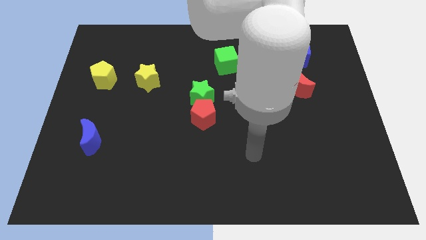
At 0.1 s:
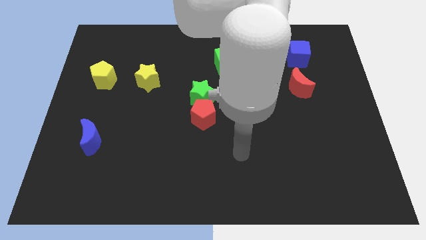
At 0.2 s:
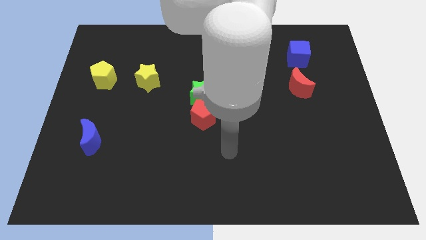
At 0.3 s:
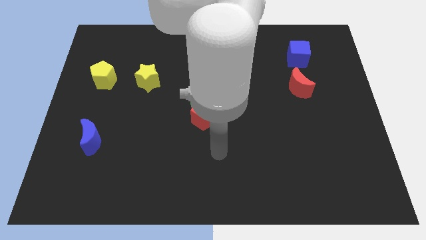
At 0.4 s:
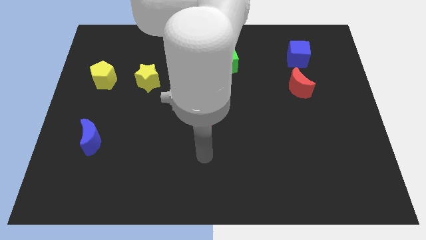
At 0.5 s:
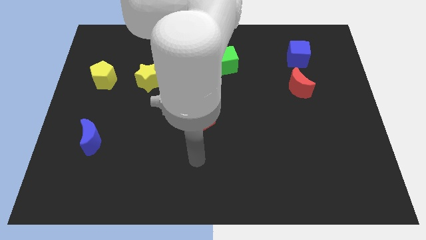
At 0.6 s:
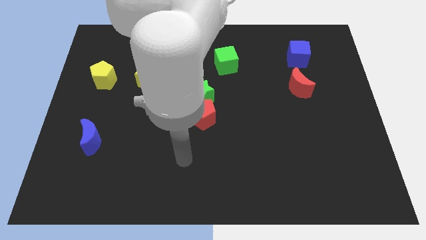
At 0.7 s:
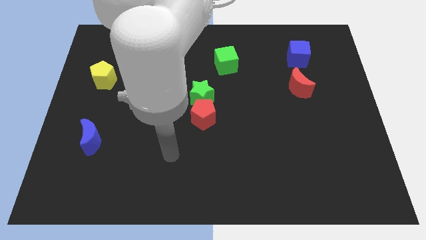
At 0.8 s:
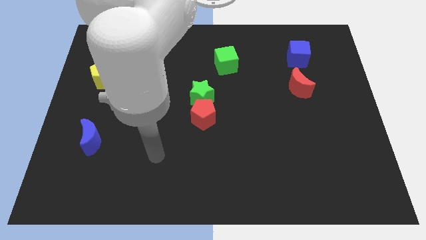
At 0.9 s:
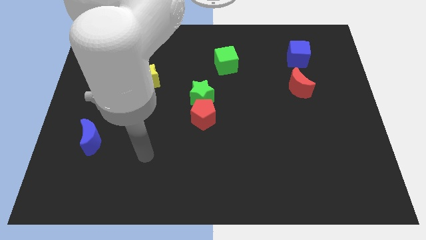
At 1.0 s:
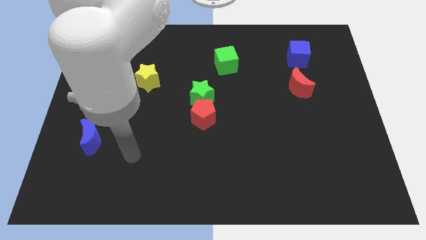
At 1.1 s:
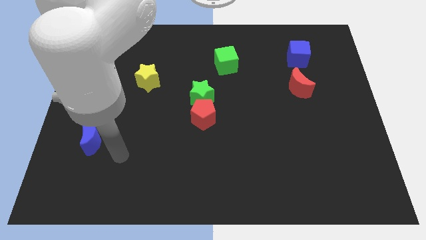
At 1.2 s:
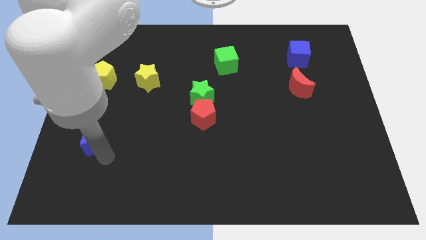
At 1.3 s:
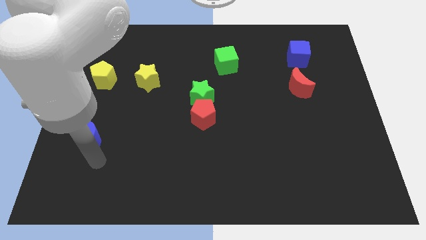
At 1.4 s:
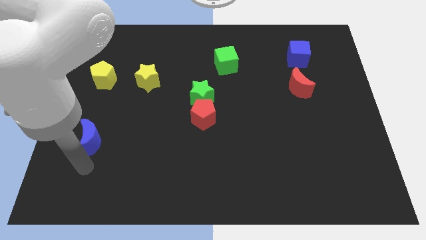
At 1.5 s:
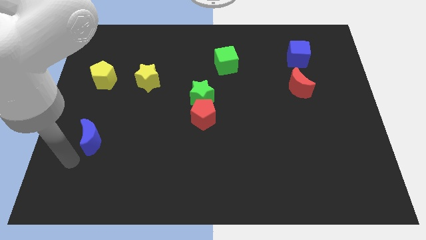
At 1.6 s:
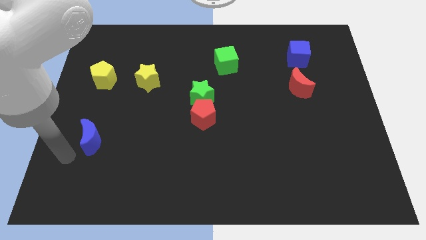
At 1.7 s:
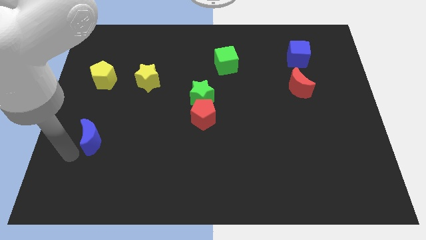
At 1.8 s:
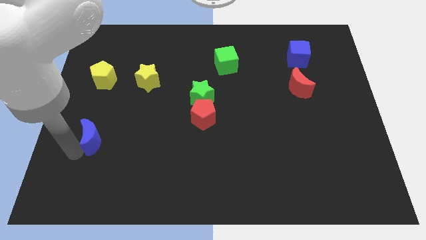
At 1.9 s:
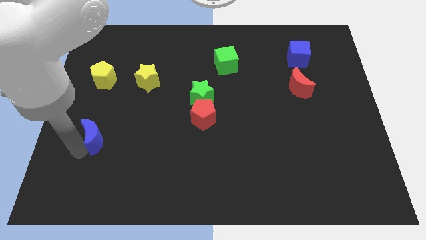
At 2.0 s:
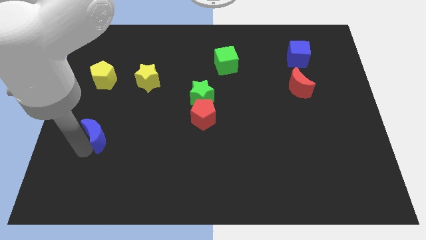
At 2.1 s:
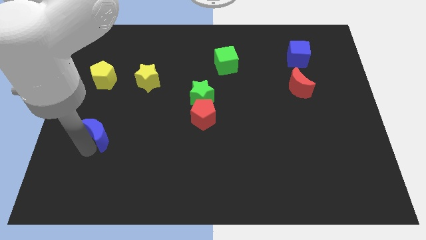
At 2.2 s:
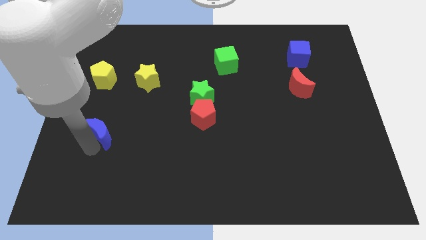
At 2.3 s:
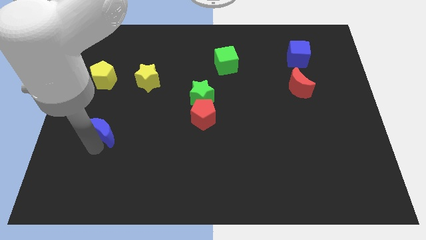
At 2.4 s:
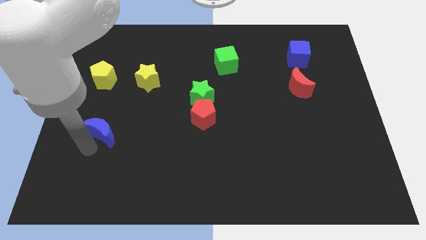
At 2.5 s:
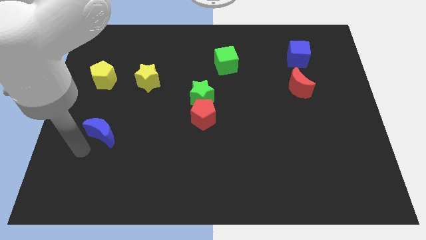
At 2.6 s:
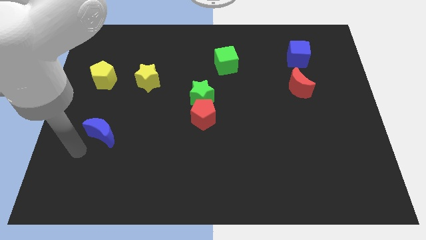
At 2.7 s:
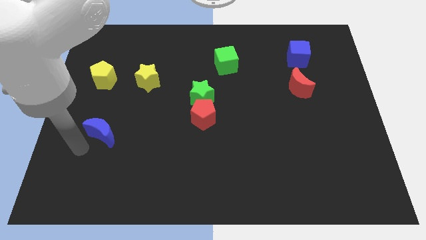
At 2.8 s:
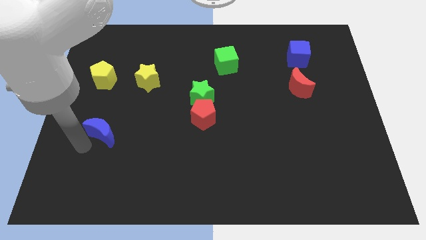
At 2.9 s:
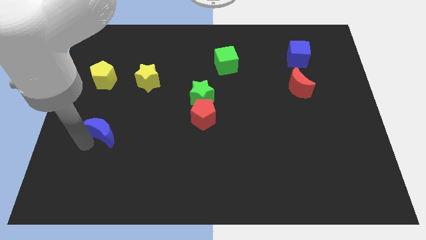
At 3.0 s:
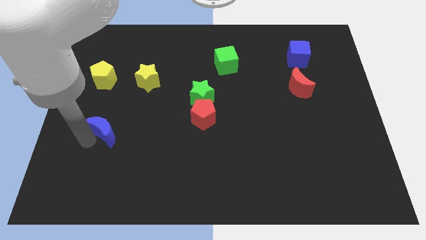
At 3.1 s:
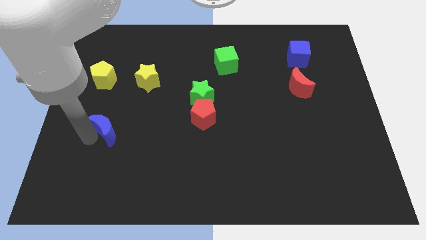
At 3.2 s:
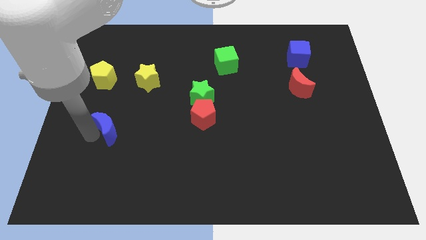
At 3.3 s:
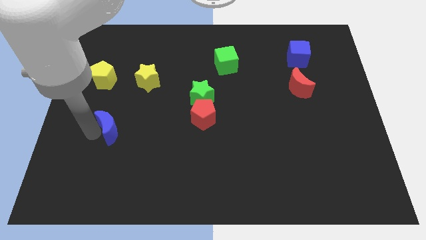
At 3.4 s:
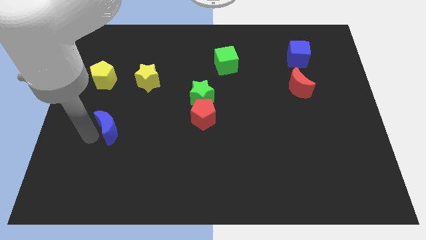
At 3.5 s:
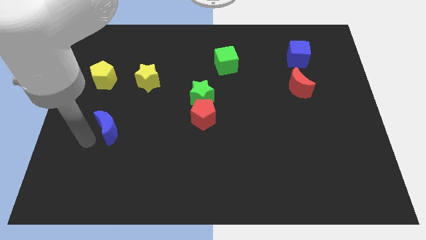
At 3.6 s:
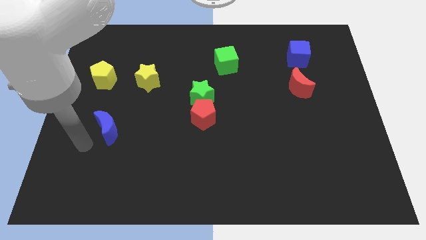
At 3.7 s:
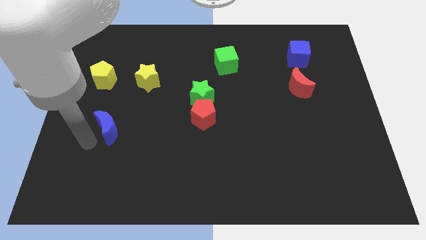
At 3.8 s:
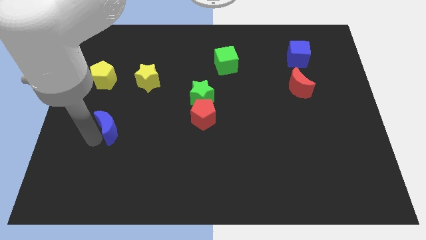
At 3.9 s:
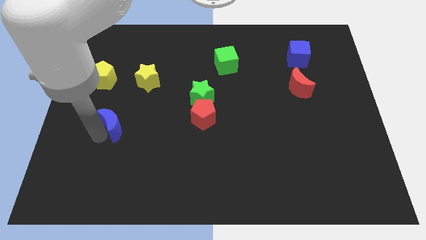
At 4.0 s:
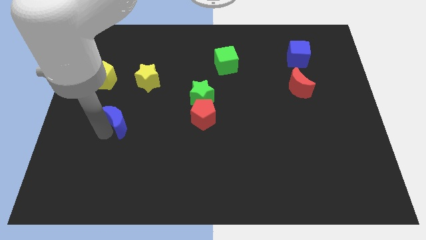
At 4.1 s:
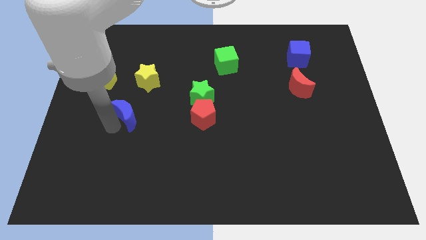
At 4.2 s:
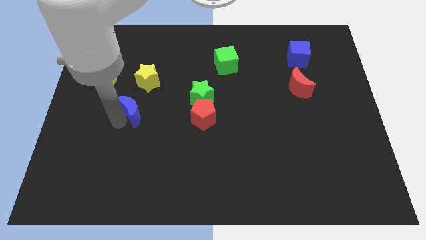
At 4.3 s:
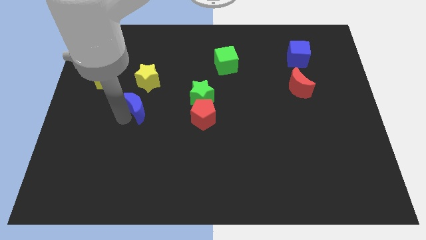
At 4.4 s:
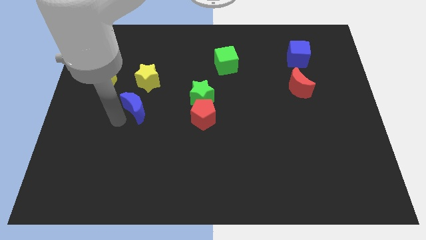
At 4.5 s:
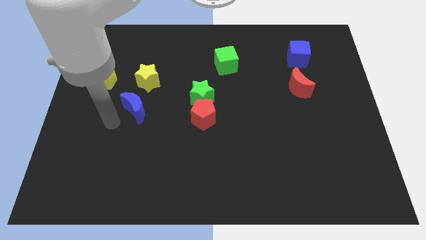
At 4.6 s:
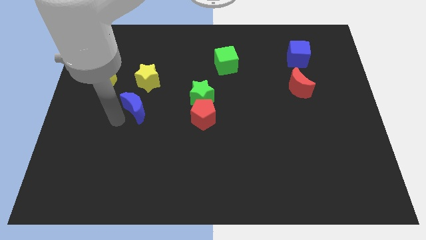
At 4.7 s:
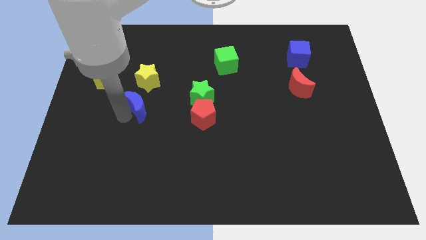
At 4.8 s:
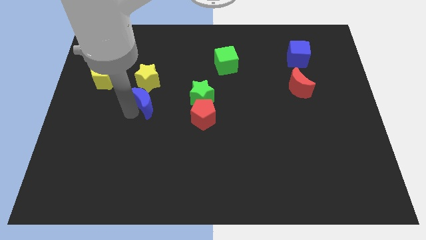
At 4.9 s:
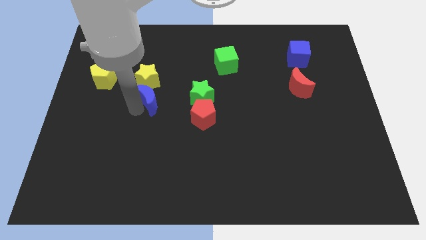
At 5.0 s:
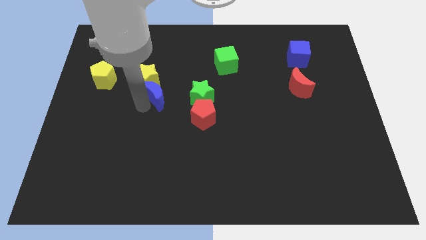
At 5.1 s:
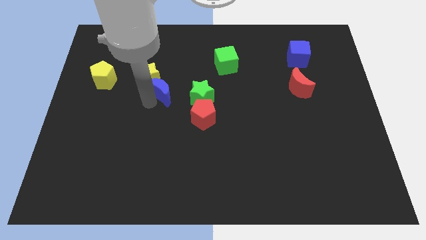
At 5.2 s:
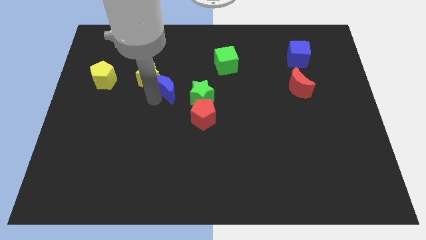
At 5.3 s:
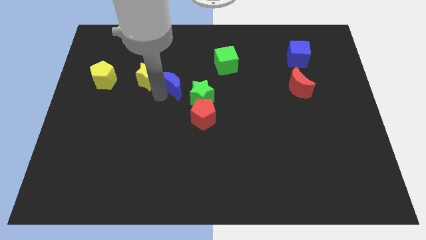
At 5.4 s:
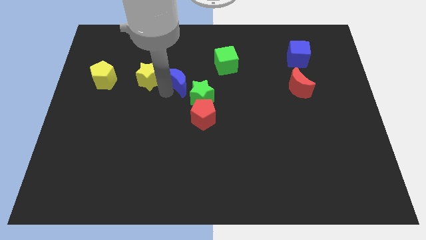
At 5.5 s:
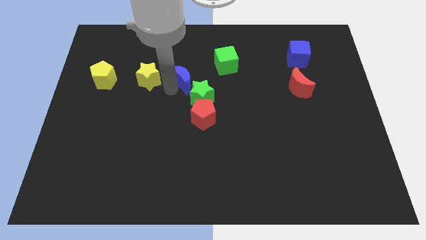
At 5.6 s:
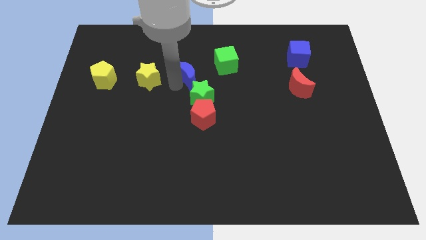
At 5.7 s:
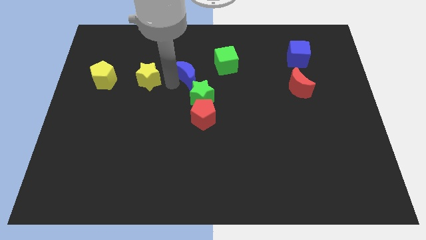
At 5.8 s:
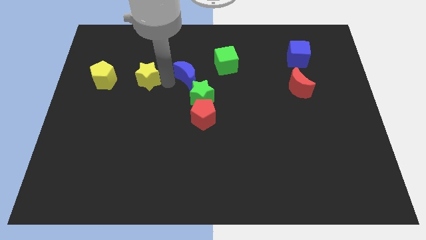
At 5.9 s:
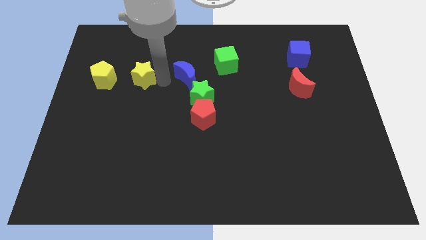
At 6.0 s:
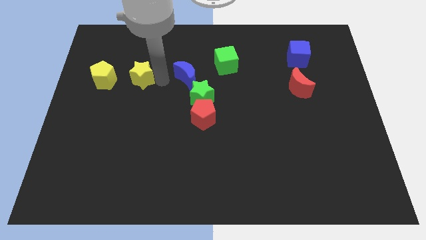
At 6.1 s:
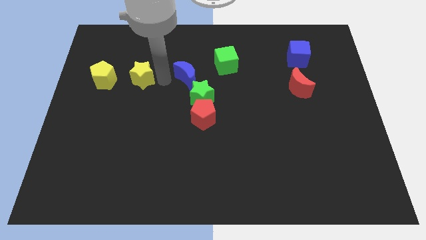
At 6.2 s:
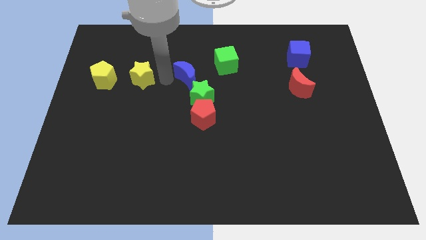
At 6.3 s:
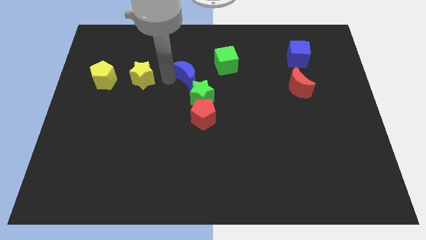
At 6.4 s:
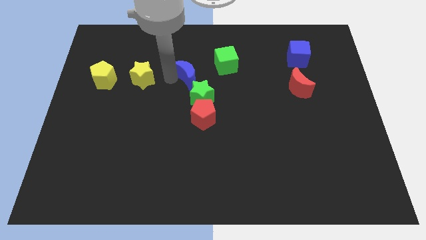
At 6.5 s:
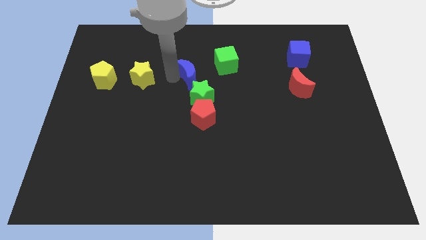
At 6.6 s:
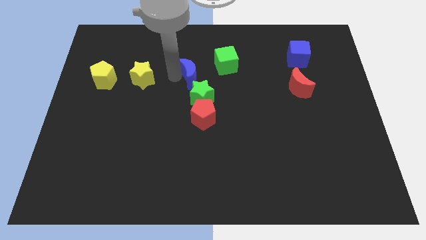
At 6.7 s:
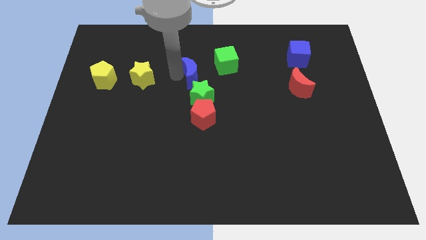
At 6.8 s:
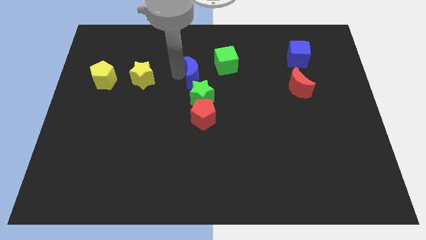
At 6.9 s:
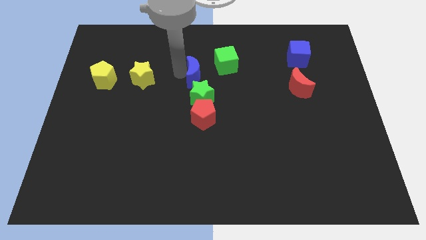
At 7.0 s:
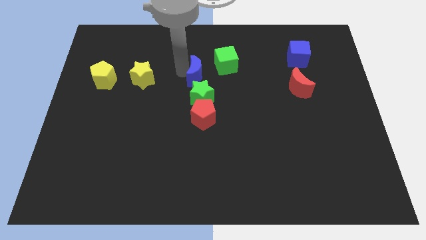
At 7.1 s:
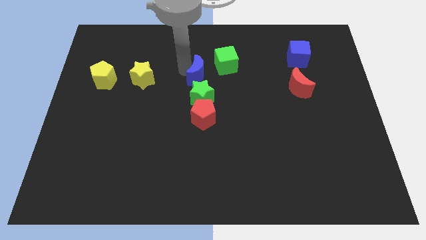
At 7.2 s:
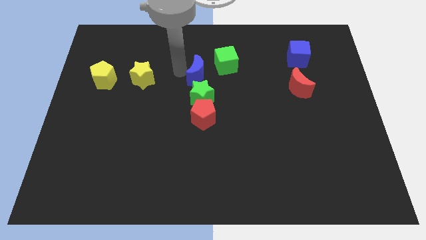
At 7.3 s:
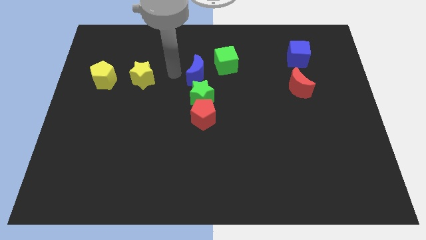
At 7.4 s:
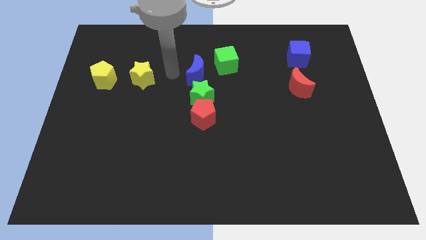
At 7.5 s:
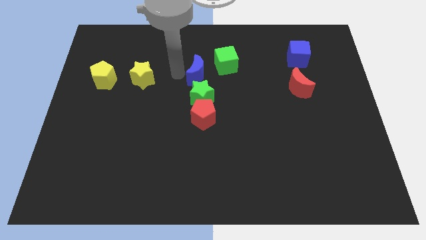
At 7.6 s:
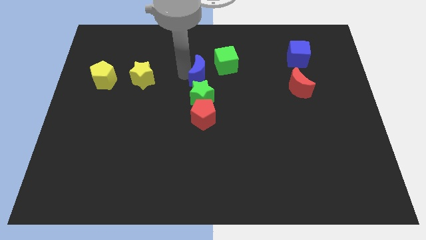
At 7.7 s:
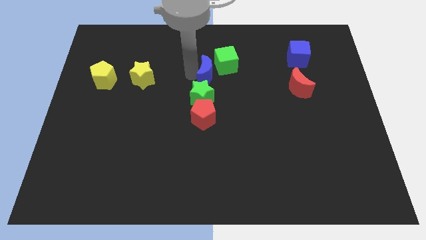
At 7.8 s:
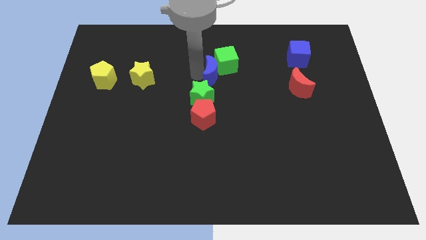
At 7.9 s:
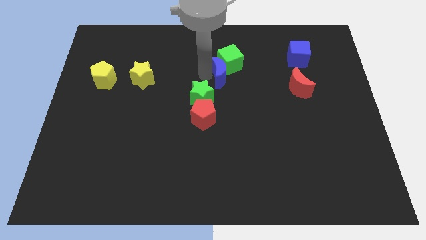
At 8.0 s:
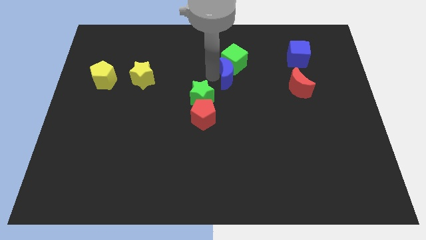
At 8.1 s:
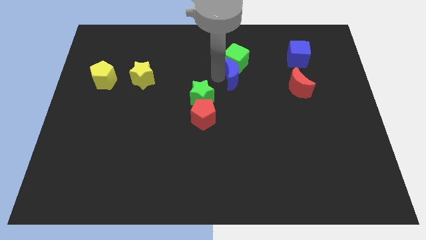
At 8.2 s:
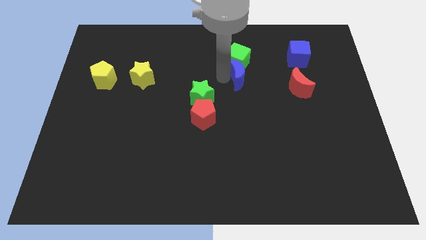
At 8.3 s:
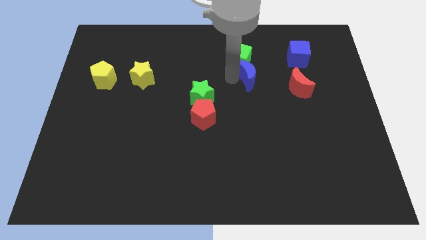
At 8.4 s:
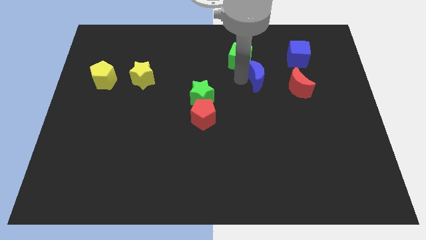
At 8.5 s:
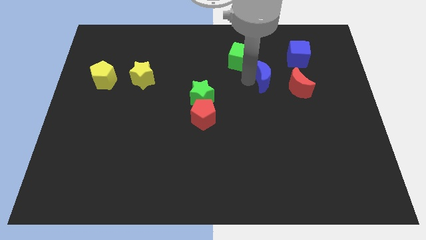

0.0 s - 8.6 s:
put the blue moon to the bottom left of the blue cube
